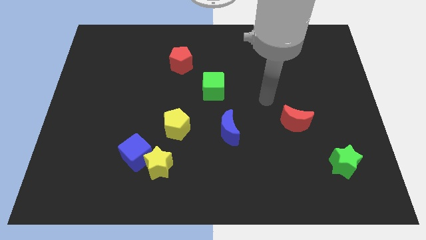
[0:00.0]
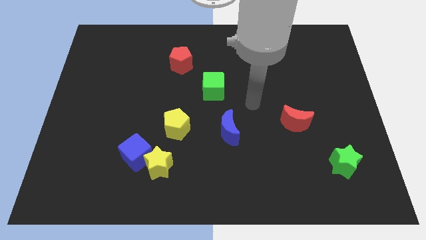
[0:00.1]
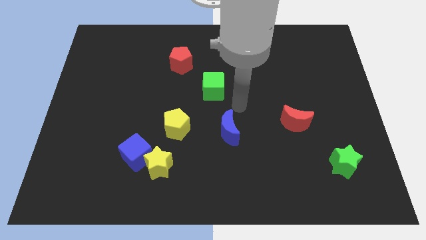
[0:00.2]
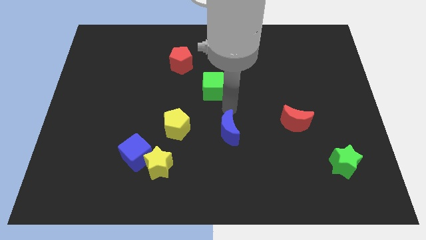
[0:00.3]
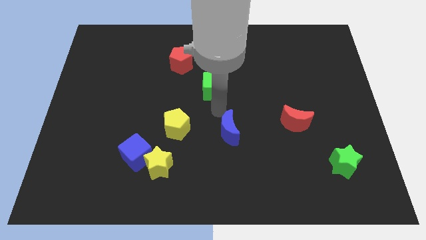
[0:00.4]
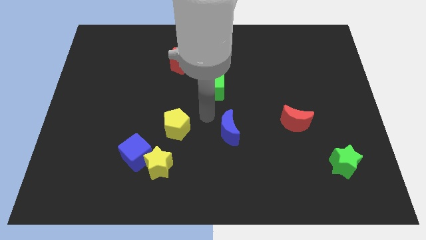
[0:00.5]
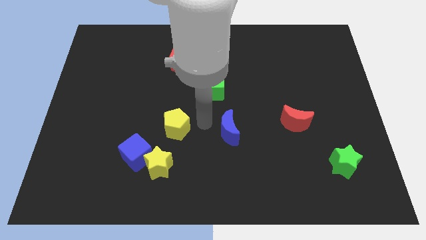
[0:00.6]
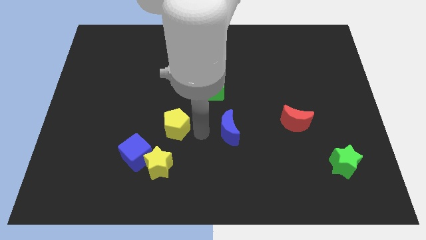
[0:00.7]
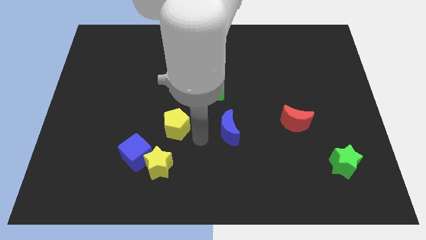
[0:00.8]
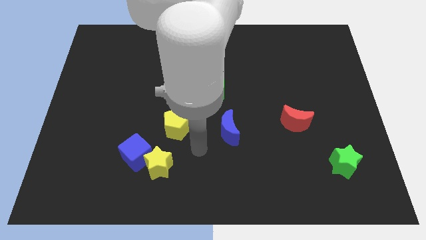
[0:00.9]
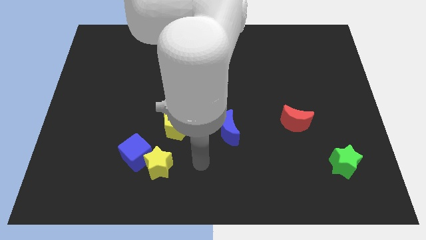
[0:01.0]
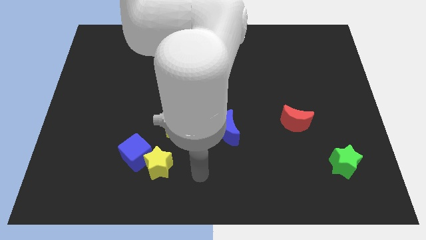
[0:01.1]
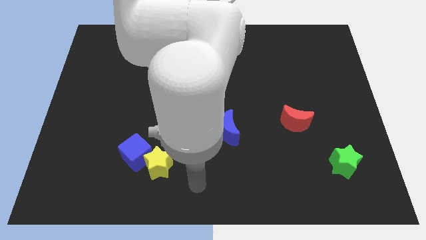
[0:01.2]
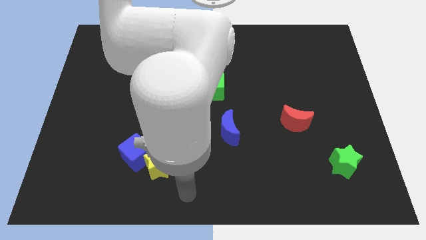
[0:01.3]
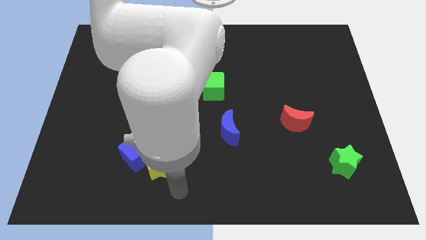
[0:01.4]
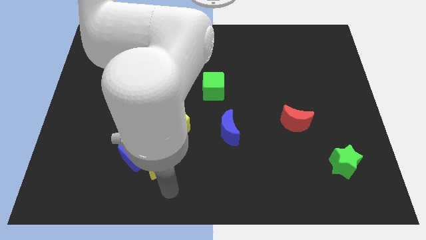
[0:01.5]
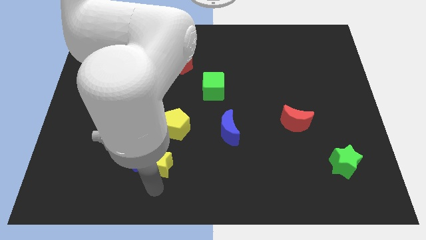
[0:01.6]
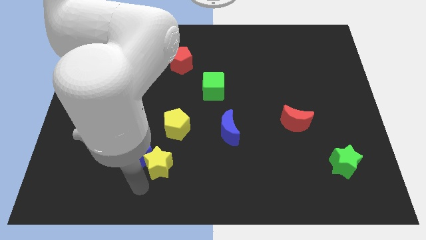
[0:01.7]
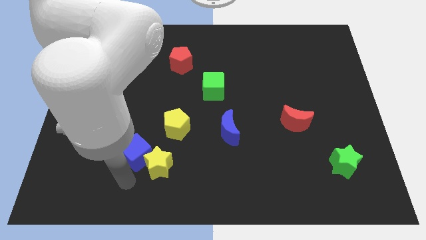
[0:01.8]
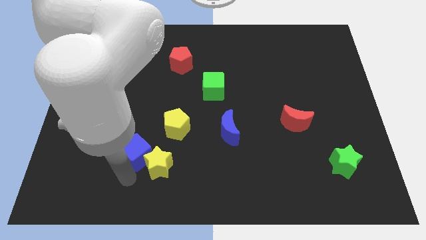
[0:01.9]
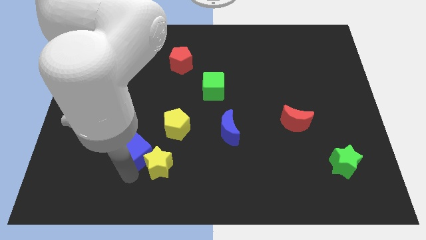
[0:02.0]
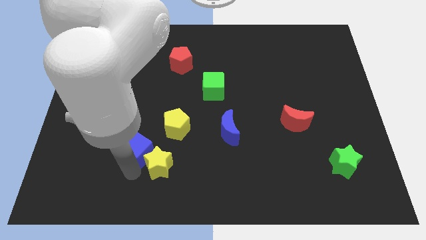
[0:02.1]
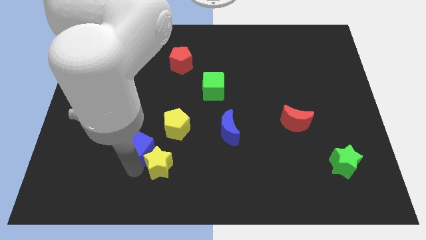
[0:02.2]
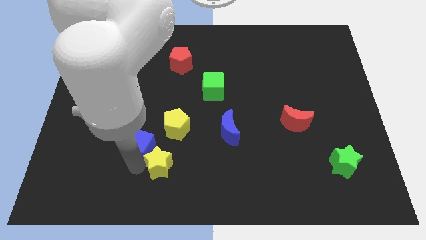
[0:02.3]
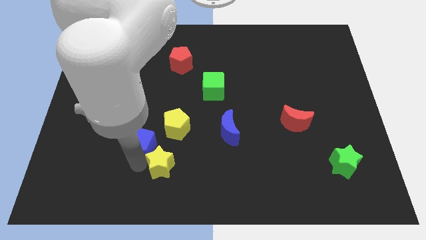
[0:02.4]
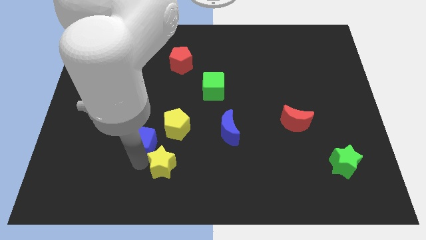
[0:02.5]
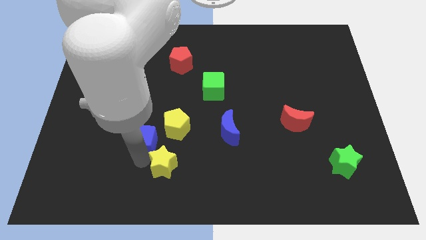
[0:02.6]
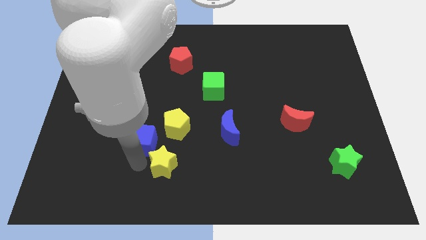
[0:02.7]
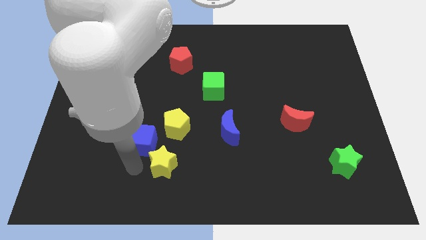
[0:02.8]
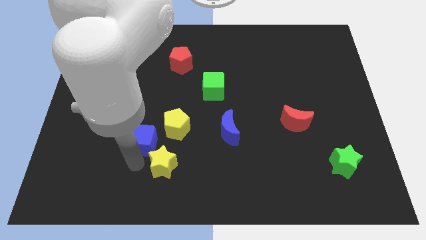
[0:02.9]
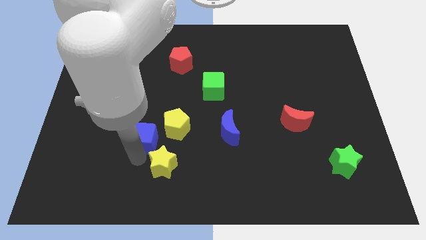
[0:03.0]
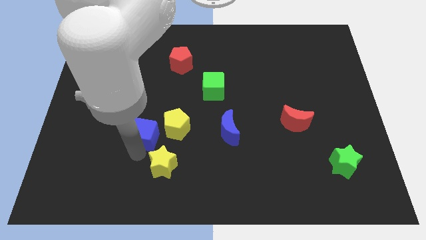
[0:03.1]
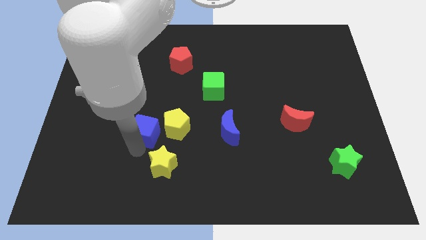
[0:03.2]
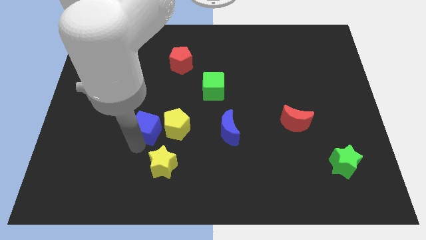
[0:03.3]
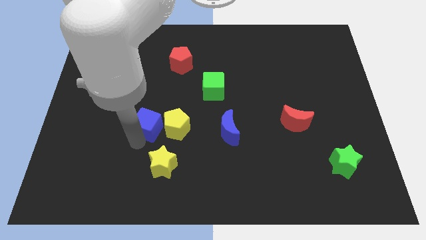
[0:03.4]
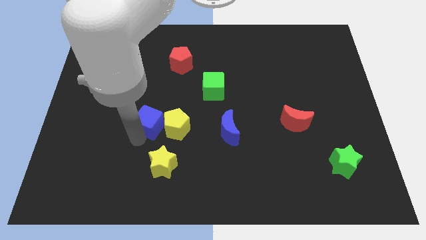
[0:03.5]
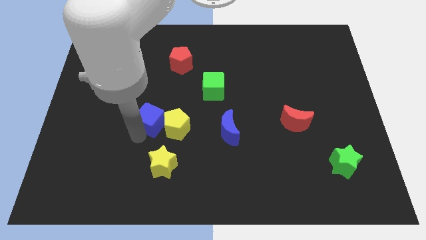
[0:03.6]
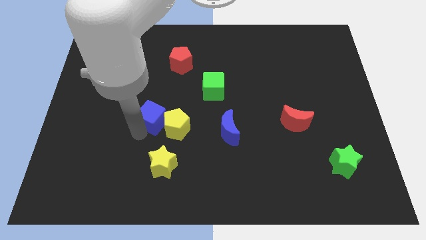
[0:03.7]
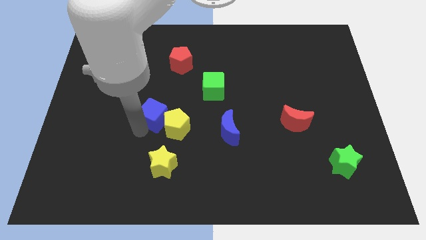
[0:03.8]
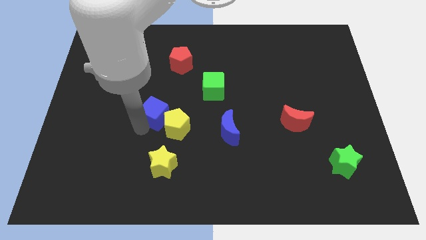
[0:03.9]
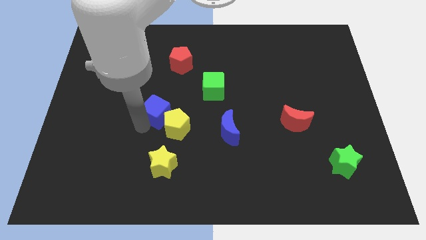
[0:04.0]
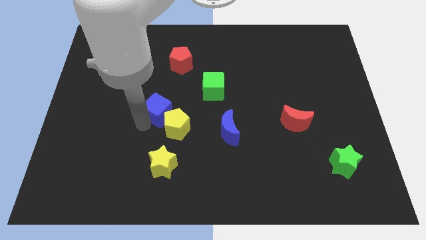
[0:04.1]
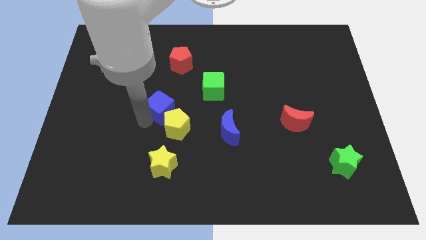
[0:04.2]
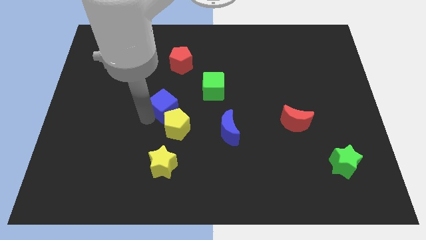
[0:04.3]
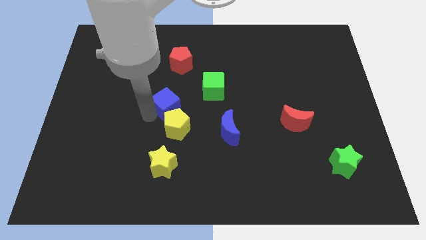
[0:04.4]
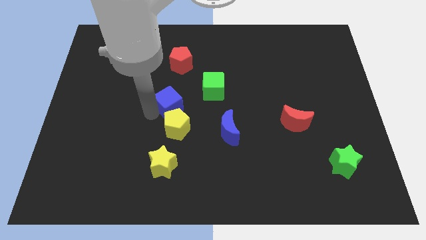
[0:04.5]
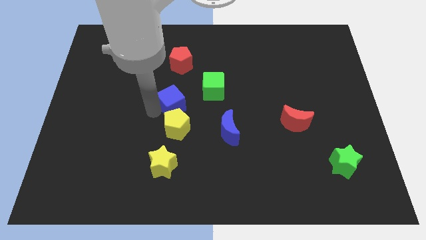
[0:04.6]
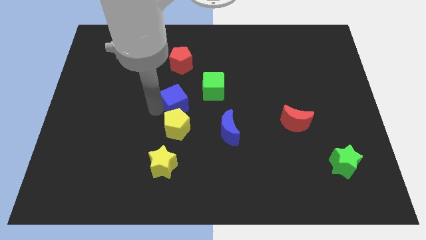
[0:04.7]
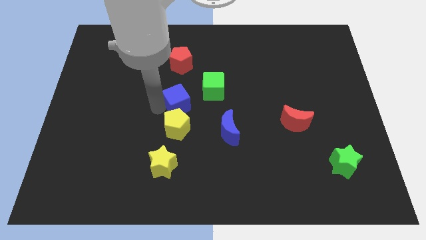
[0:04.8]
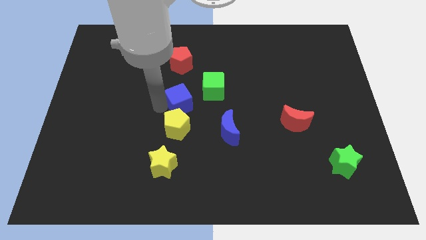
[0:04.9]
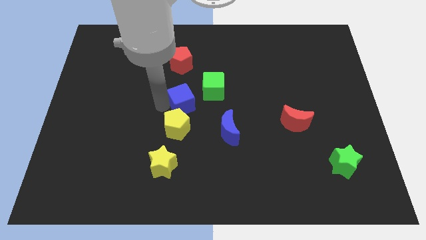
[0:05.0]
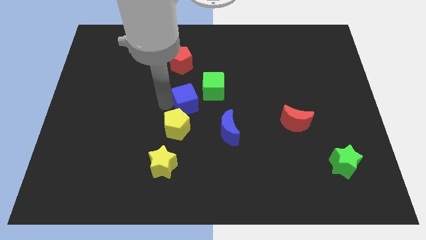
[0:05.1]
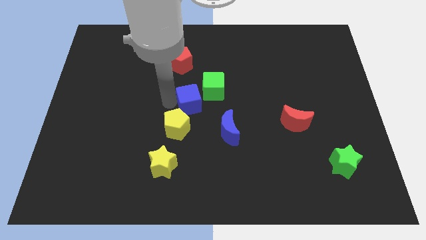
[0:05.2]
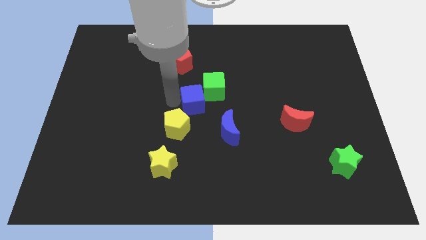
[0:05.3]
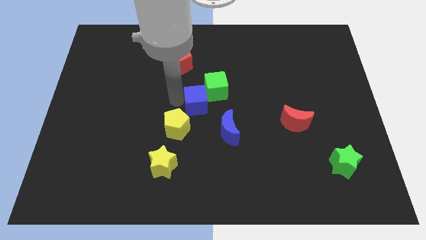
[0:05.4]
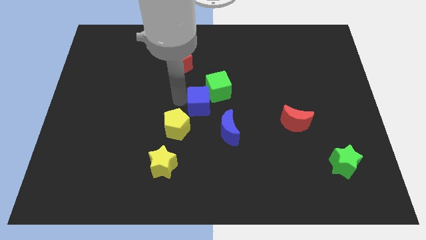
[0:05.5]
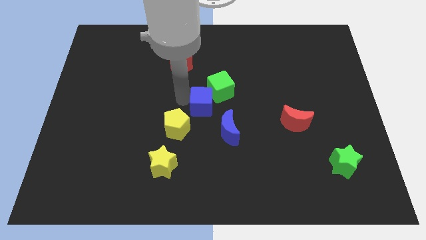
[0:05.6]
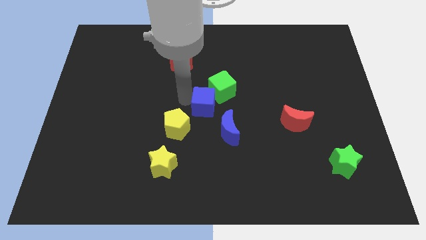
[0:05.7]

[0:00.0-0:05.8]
push the blue cube up and to the right

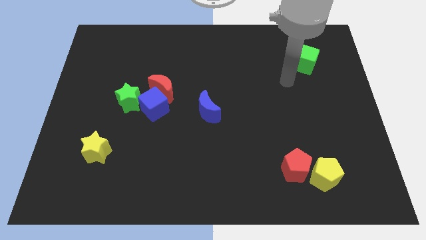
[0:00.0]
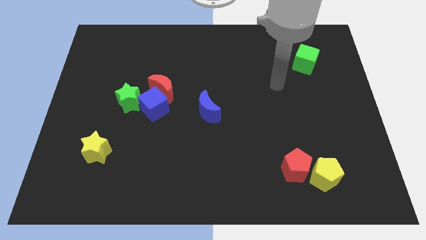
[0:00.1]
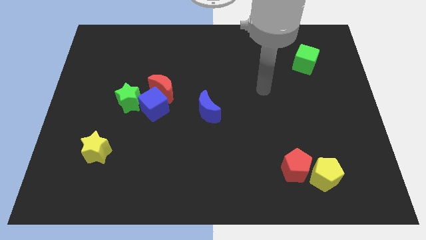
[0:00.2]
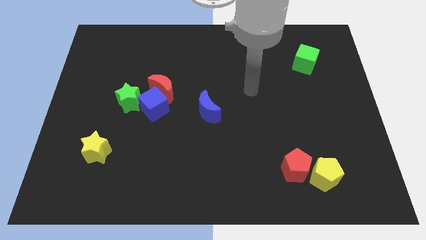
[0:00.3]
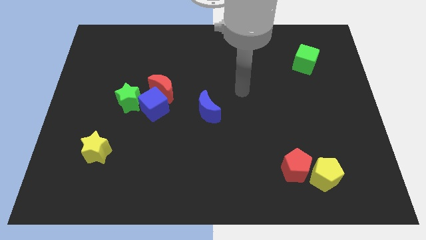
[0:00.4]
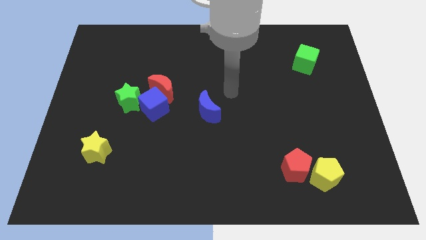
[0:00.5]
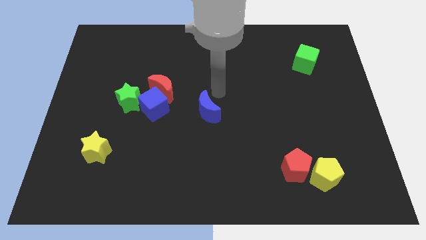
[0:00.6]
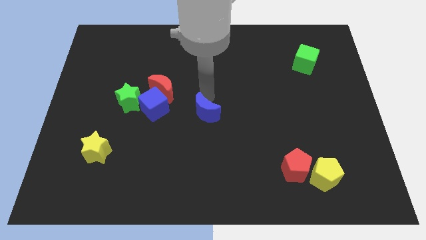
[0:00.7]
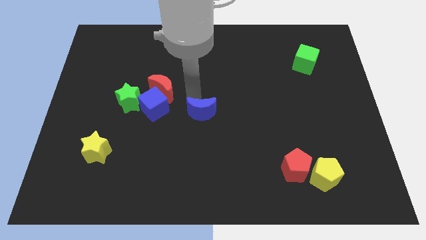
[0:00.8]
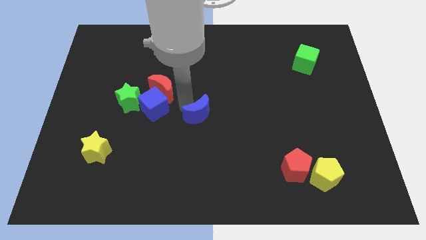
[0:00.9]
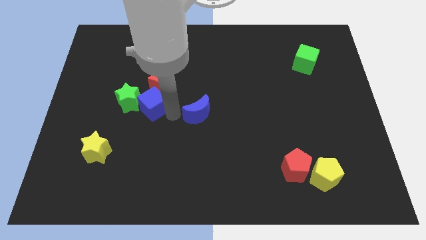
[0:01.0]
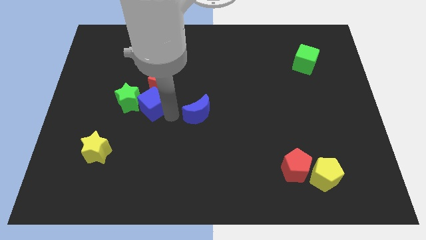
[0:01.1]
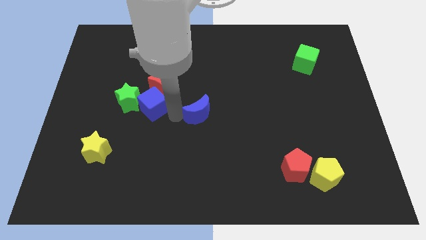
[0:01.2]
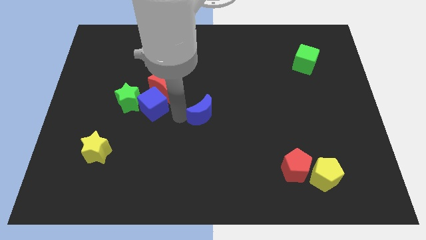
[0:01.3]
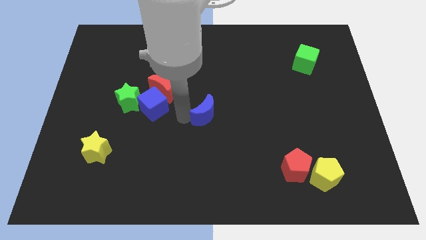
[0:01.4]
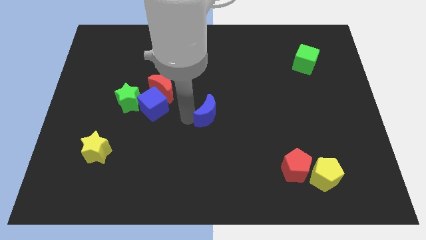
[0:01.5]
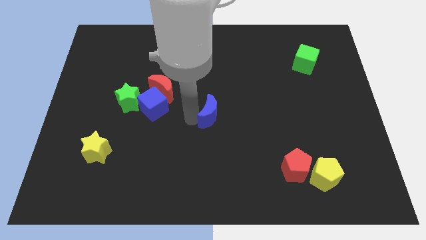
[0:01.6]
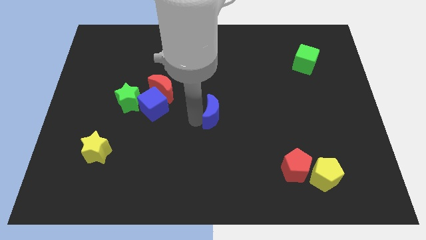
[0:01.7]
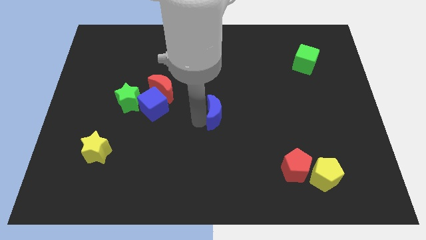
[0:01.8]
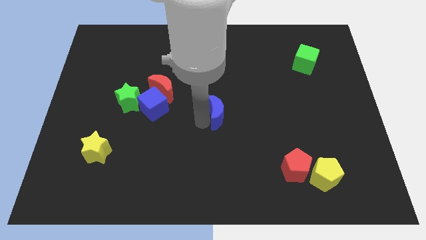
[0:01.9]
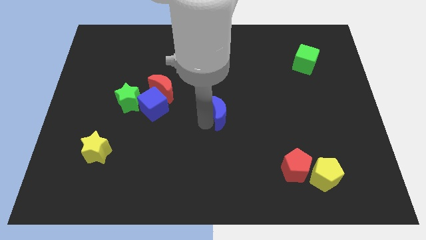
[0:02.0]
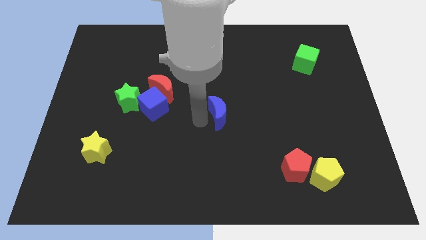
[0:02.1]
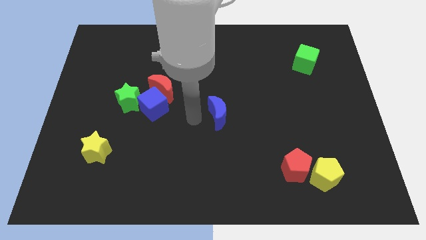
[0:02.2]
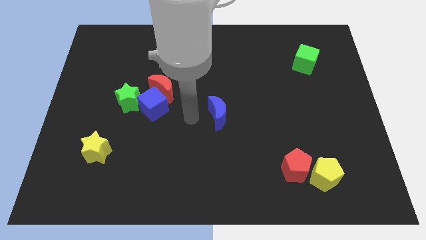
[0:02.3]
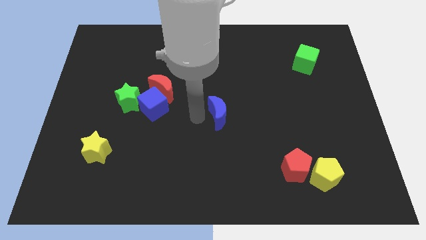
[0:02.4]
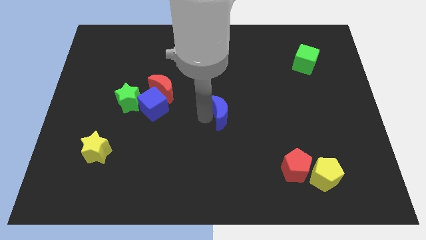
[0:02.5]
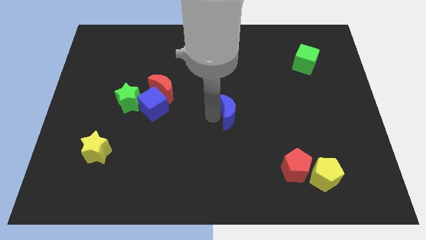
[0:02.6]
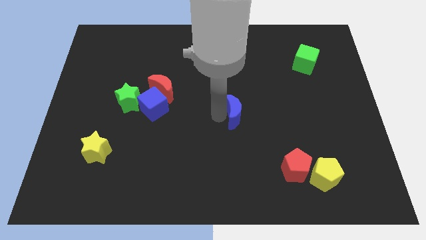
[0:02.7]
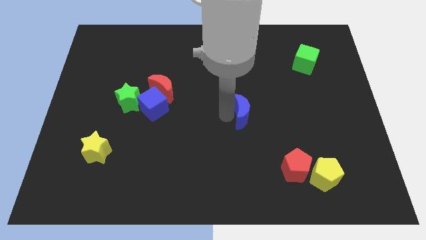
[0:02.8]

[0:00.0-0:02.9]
slide the blue moon right a bit

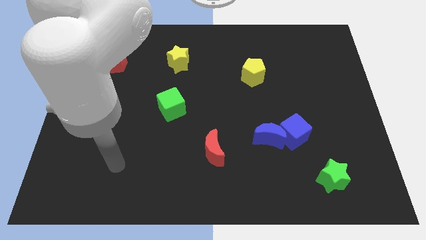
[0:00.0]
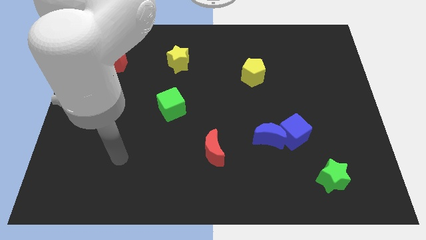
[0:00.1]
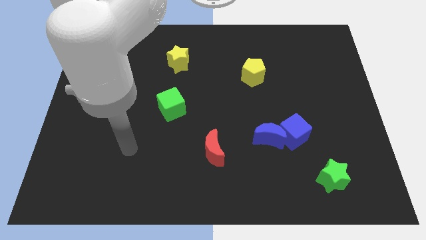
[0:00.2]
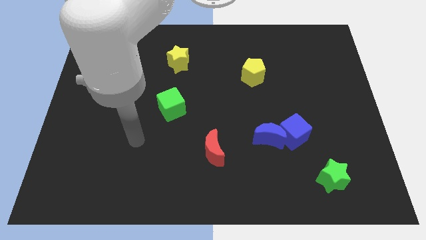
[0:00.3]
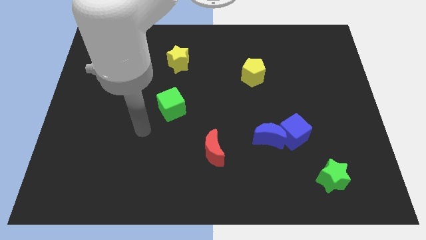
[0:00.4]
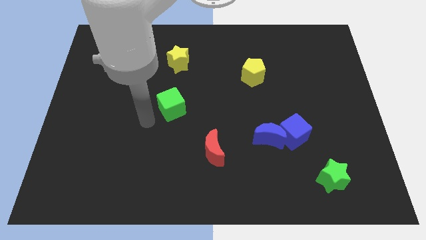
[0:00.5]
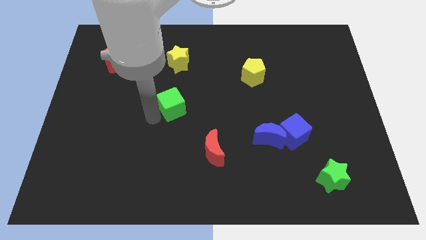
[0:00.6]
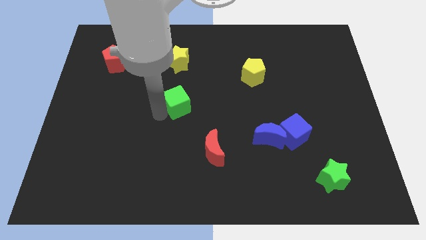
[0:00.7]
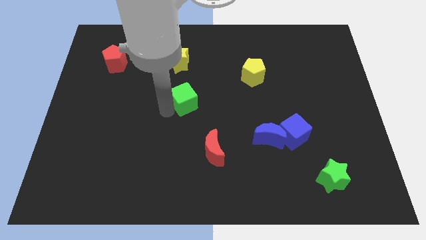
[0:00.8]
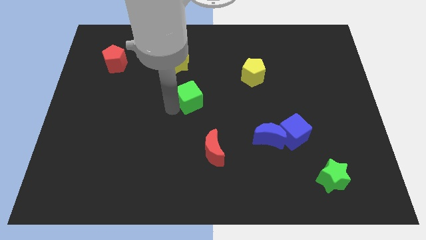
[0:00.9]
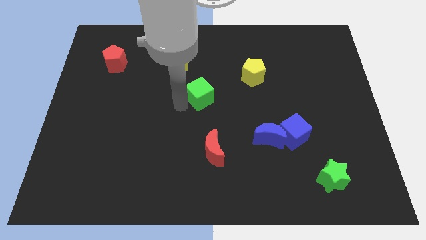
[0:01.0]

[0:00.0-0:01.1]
slightly push the green cube upwards and then right
